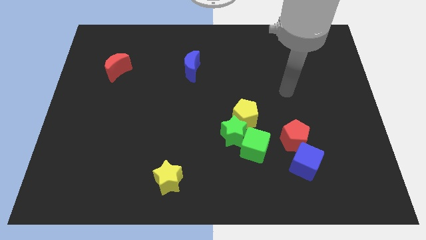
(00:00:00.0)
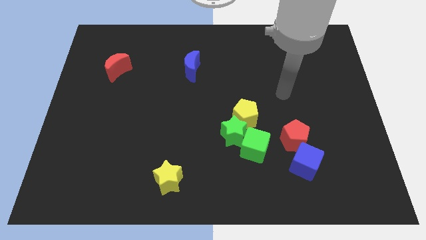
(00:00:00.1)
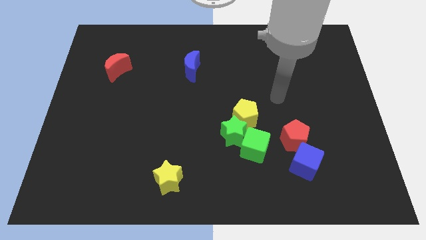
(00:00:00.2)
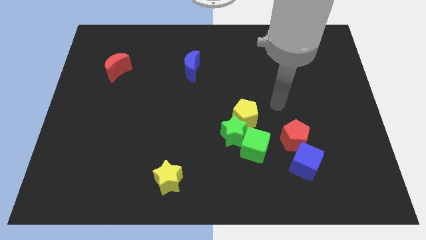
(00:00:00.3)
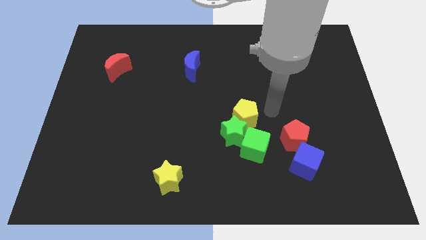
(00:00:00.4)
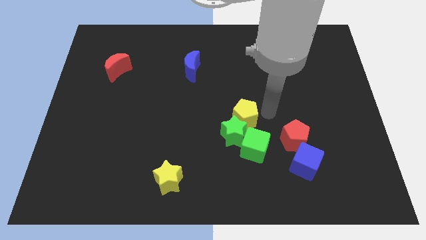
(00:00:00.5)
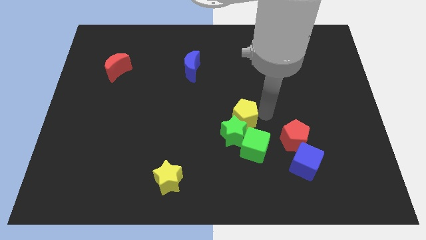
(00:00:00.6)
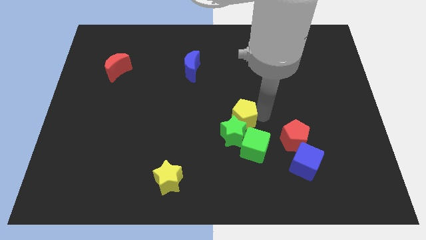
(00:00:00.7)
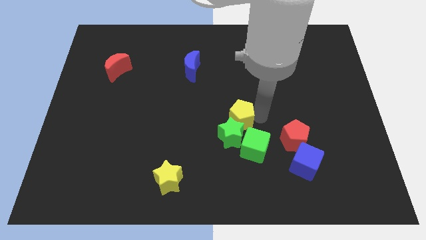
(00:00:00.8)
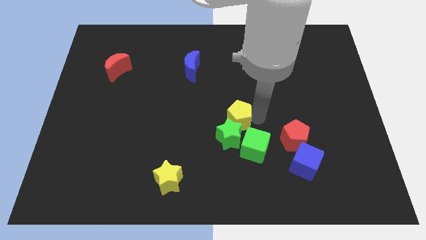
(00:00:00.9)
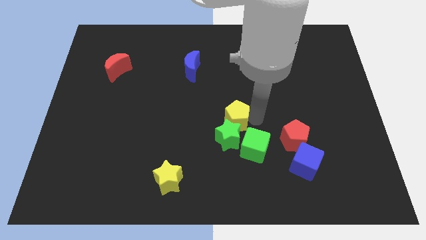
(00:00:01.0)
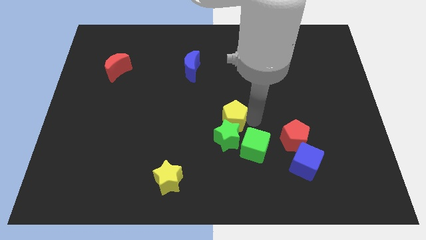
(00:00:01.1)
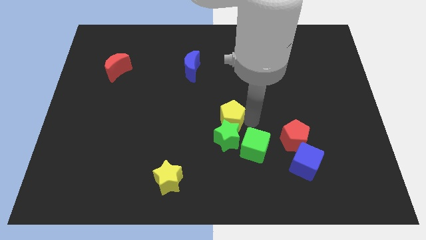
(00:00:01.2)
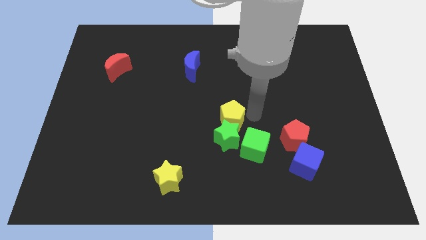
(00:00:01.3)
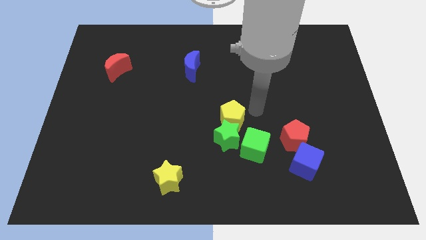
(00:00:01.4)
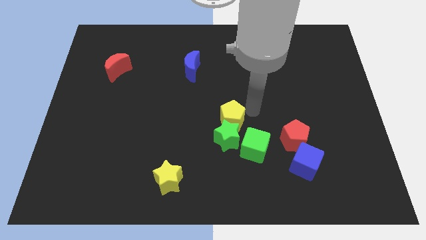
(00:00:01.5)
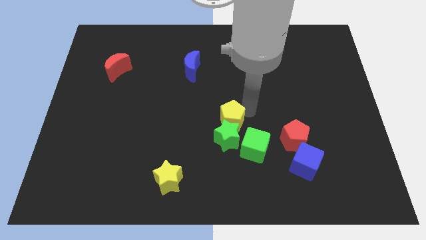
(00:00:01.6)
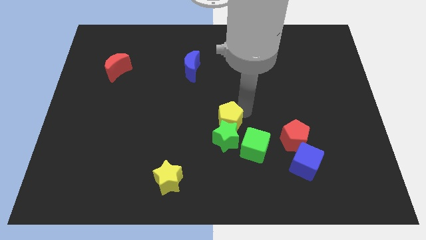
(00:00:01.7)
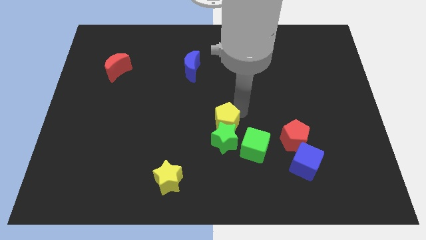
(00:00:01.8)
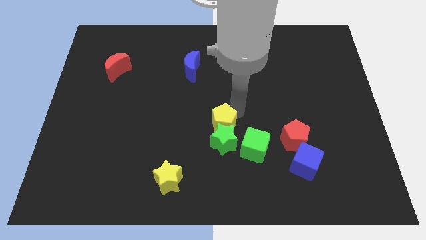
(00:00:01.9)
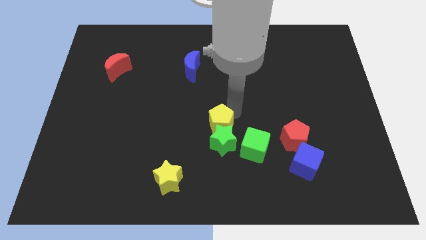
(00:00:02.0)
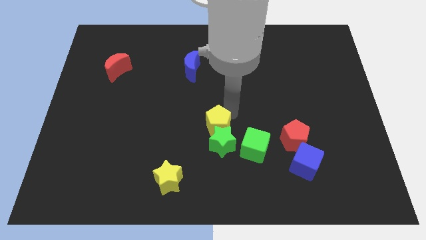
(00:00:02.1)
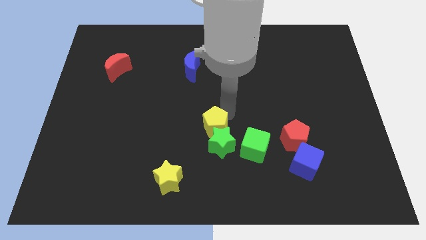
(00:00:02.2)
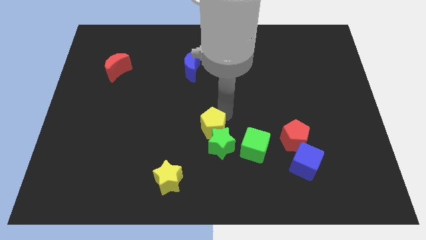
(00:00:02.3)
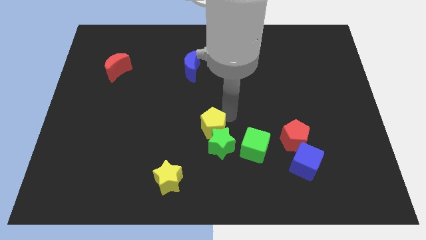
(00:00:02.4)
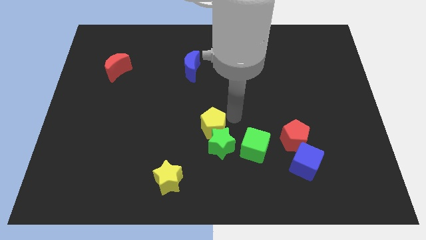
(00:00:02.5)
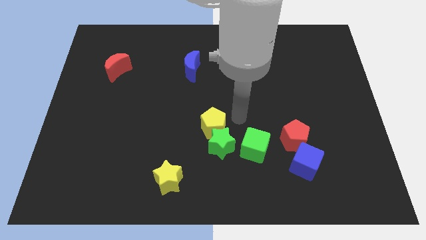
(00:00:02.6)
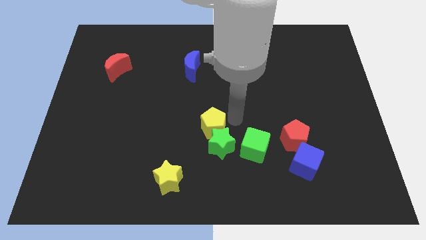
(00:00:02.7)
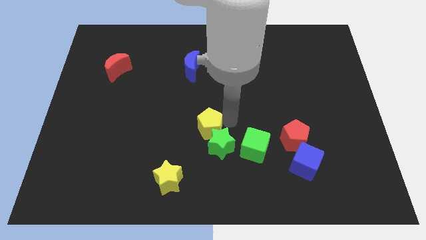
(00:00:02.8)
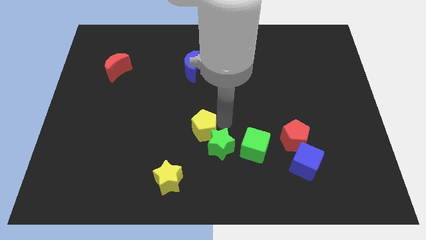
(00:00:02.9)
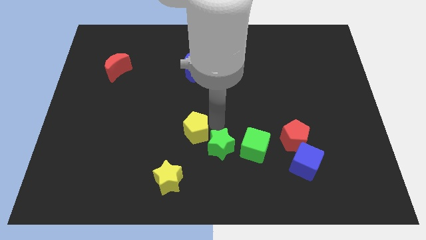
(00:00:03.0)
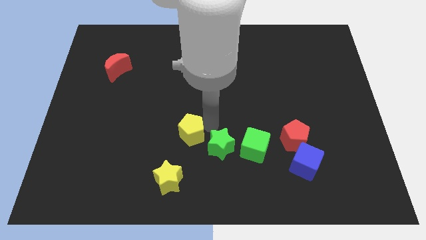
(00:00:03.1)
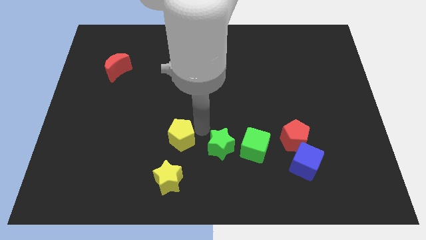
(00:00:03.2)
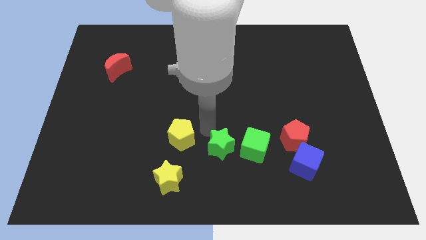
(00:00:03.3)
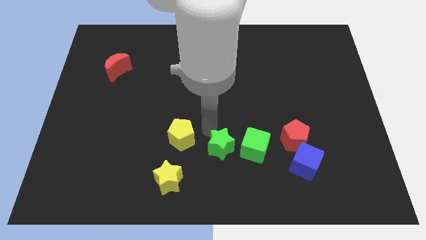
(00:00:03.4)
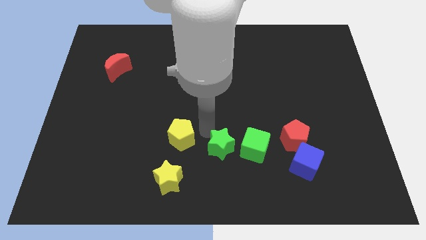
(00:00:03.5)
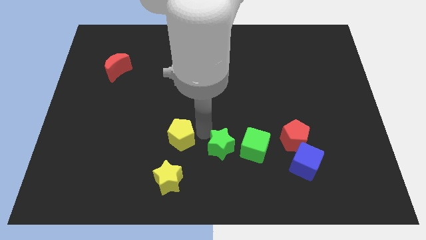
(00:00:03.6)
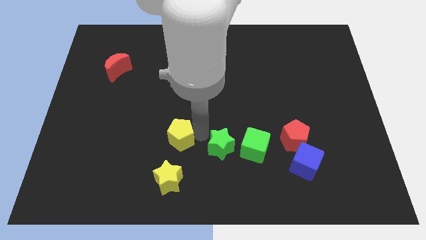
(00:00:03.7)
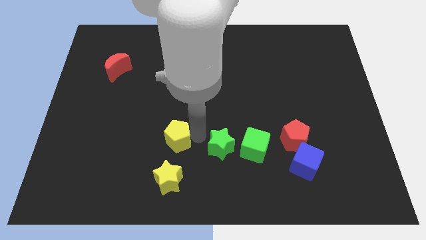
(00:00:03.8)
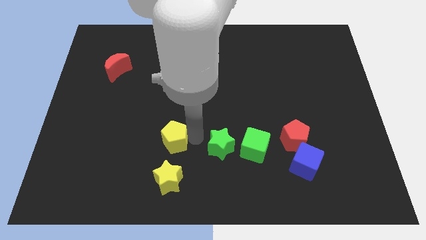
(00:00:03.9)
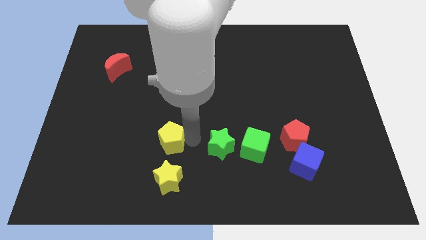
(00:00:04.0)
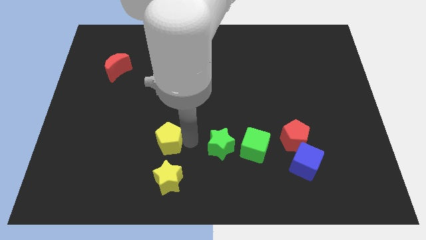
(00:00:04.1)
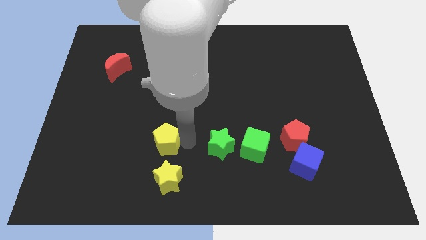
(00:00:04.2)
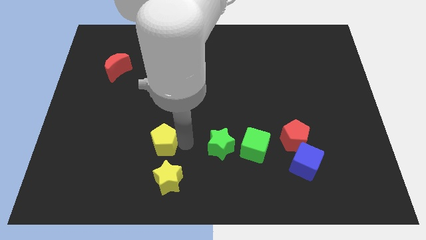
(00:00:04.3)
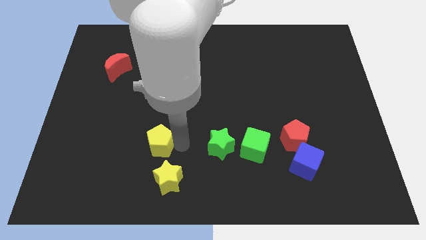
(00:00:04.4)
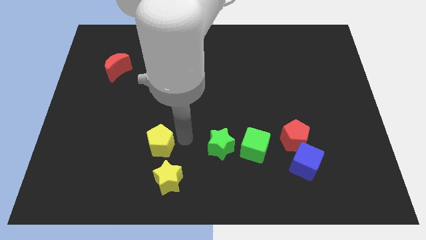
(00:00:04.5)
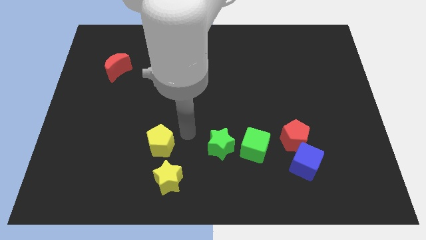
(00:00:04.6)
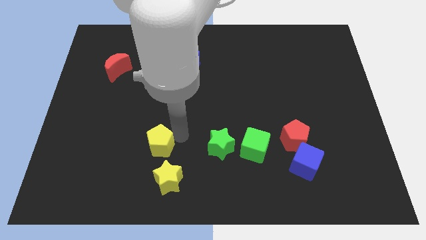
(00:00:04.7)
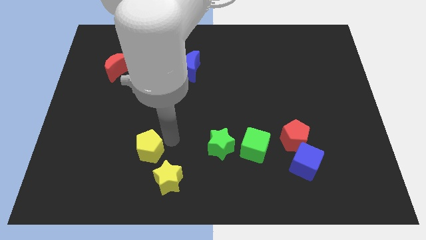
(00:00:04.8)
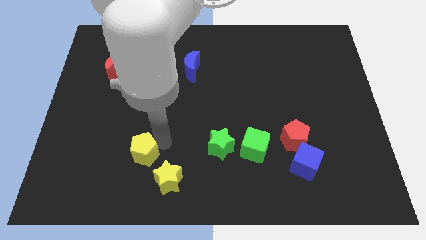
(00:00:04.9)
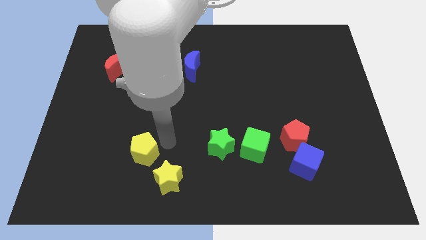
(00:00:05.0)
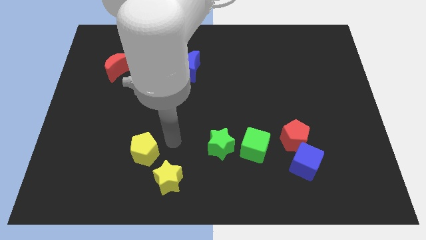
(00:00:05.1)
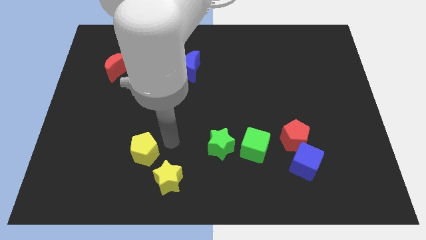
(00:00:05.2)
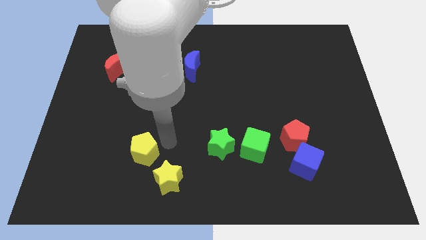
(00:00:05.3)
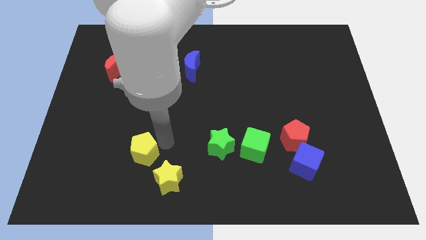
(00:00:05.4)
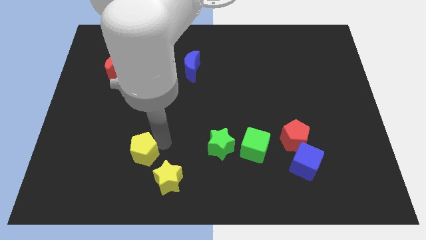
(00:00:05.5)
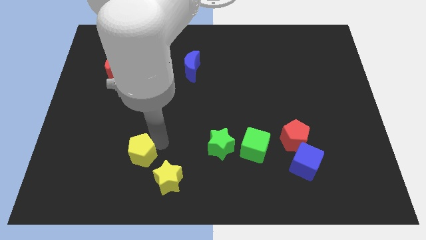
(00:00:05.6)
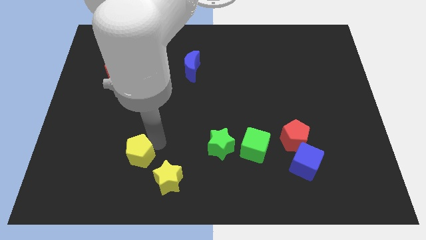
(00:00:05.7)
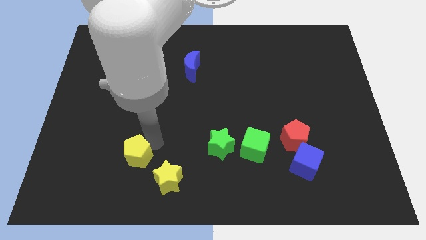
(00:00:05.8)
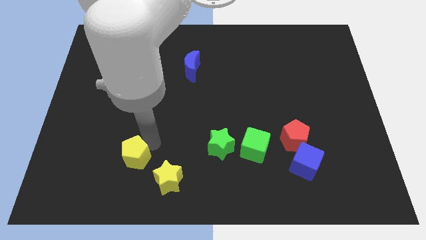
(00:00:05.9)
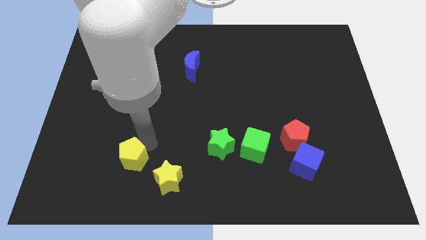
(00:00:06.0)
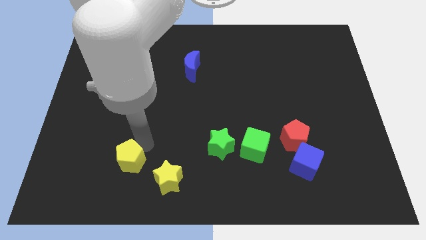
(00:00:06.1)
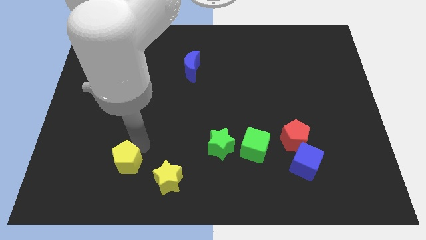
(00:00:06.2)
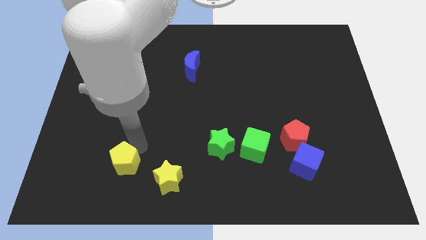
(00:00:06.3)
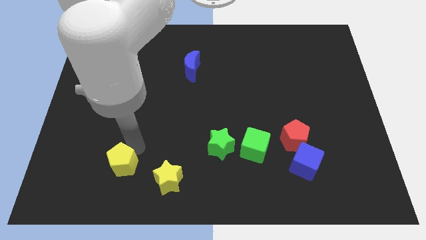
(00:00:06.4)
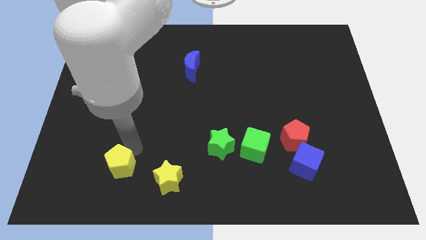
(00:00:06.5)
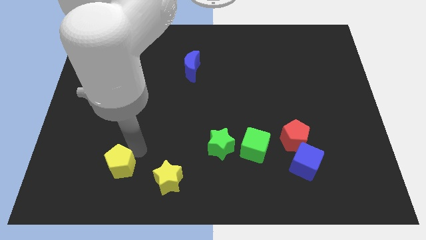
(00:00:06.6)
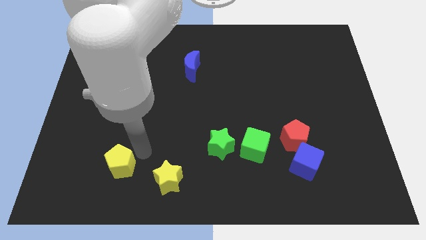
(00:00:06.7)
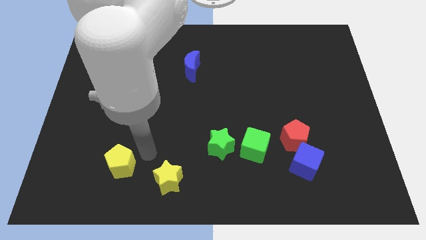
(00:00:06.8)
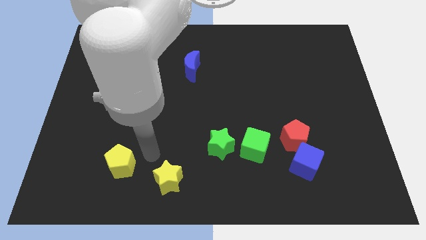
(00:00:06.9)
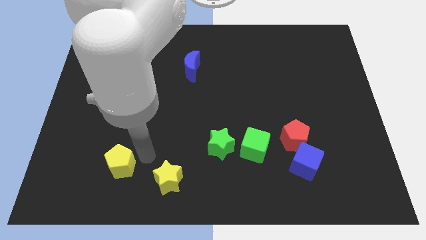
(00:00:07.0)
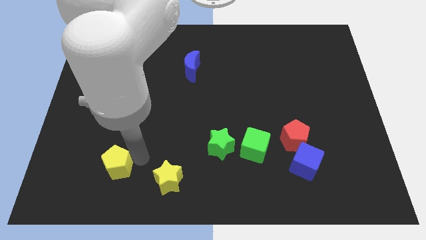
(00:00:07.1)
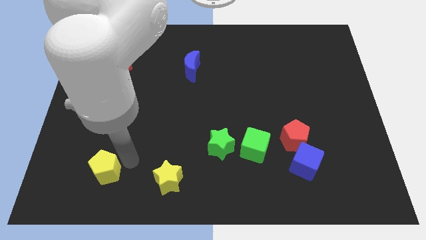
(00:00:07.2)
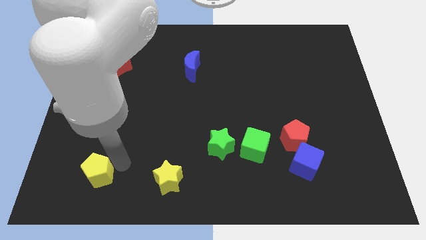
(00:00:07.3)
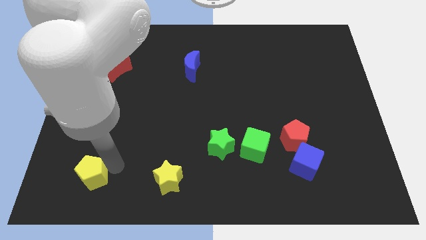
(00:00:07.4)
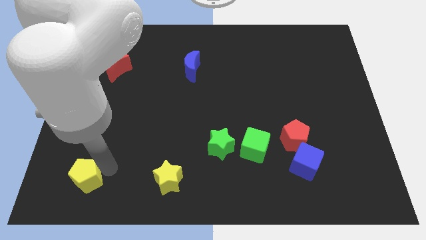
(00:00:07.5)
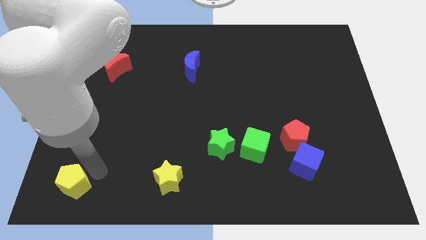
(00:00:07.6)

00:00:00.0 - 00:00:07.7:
put the yellow pentagon to the bottom left of the board

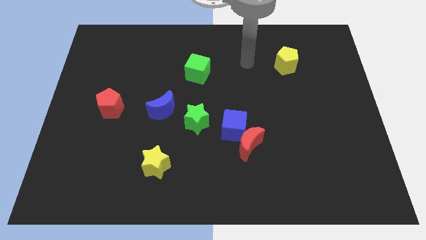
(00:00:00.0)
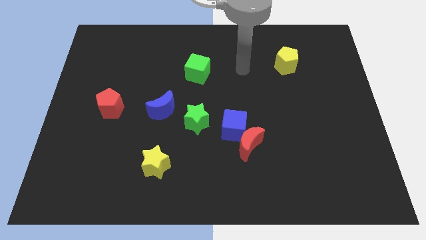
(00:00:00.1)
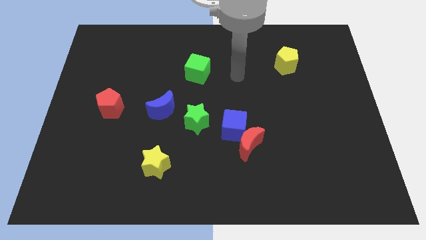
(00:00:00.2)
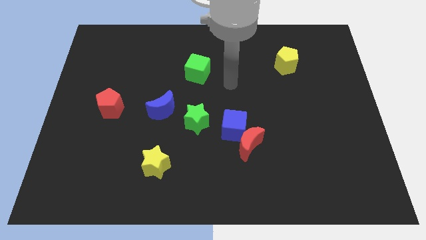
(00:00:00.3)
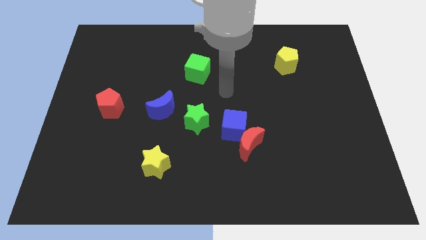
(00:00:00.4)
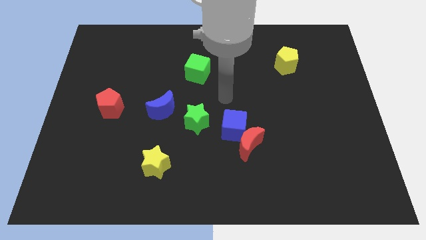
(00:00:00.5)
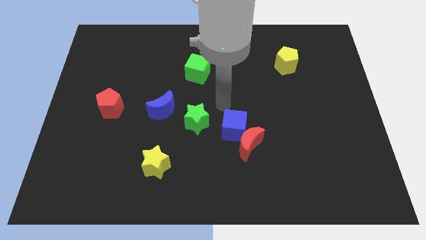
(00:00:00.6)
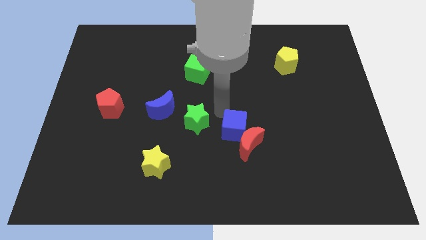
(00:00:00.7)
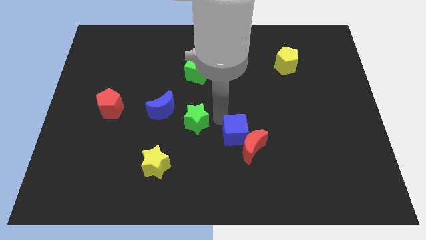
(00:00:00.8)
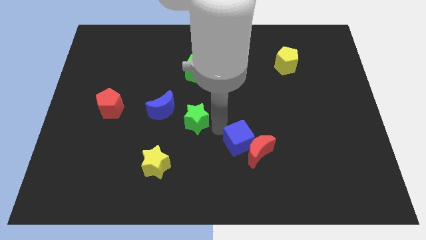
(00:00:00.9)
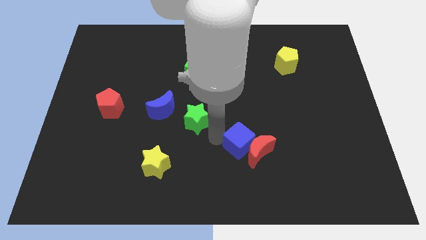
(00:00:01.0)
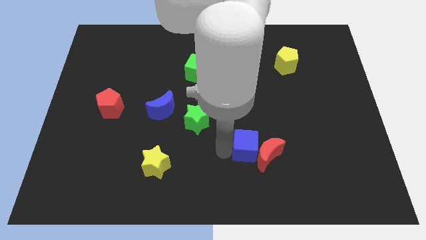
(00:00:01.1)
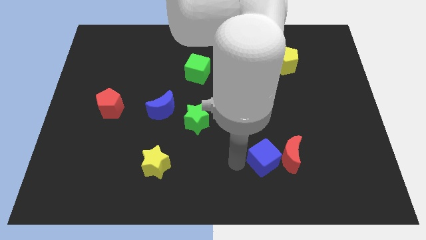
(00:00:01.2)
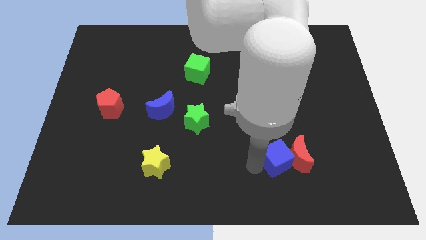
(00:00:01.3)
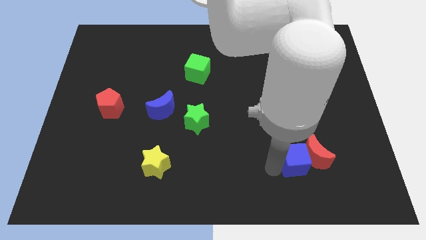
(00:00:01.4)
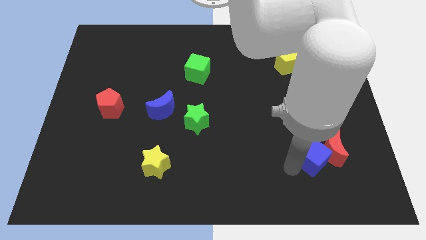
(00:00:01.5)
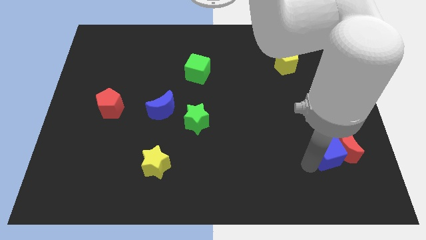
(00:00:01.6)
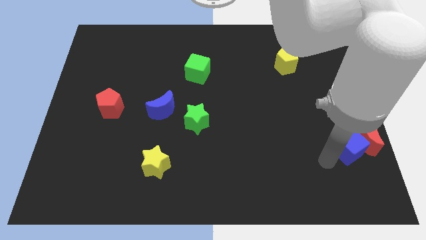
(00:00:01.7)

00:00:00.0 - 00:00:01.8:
push the red moon to the right side of the board
